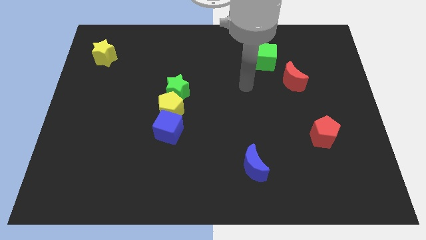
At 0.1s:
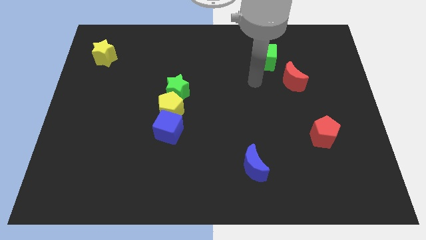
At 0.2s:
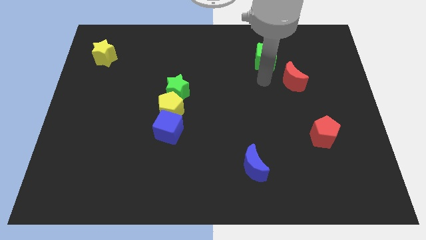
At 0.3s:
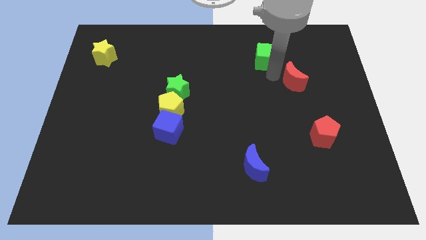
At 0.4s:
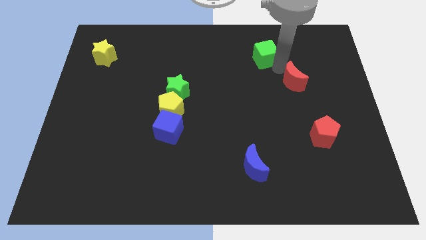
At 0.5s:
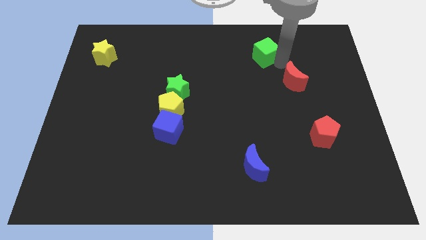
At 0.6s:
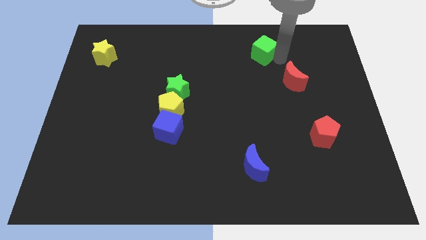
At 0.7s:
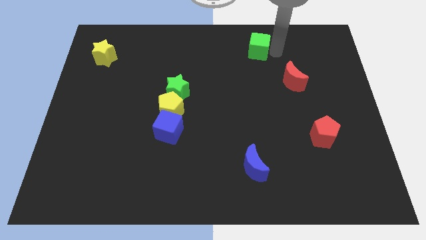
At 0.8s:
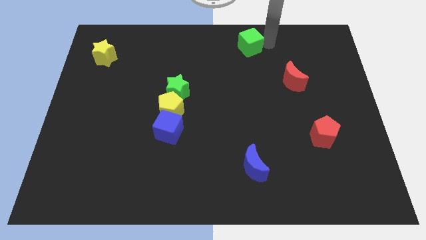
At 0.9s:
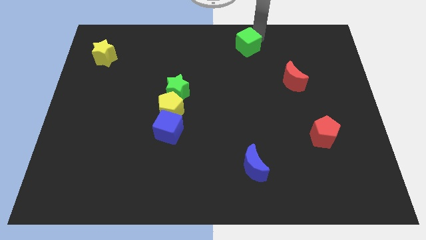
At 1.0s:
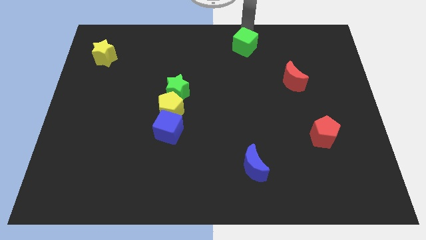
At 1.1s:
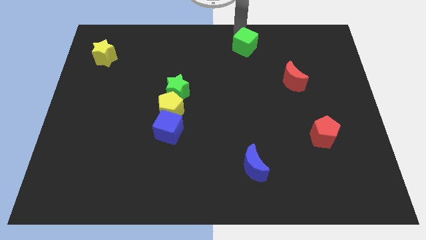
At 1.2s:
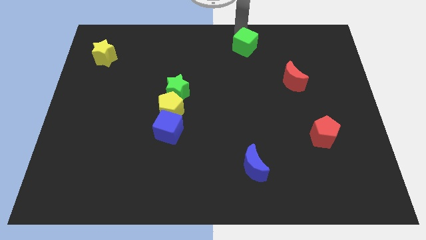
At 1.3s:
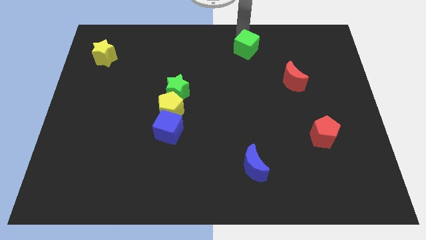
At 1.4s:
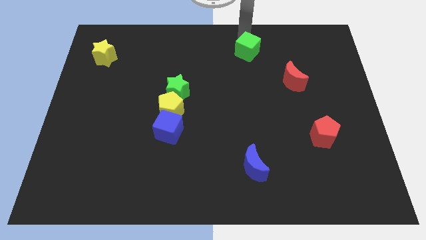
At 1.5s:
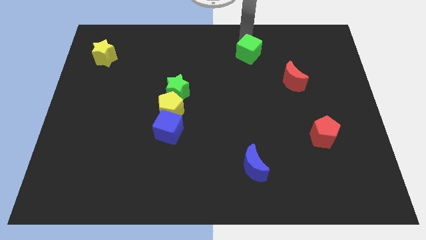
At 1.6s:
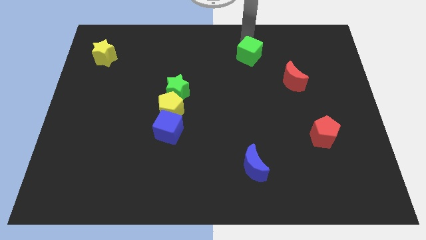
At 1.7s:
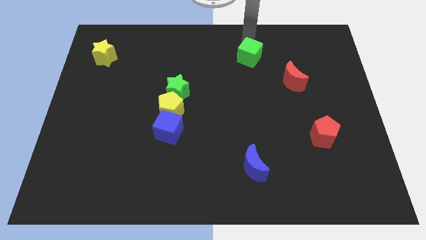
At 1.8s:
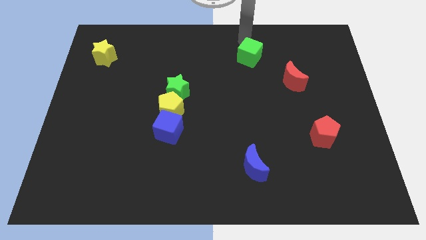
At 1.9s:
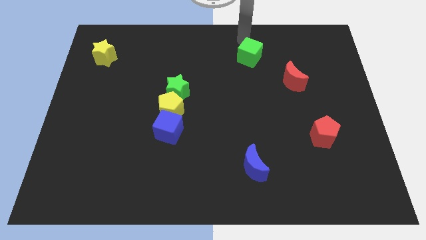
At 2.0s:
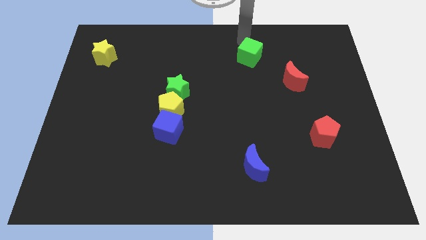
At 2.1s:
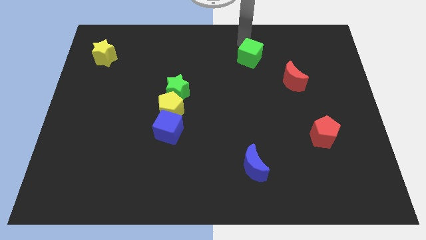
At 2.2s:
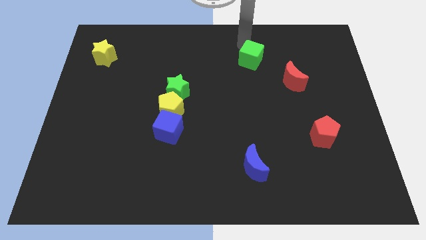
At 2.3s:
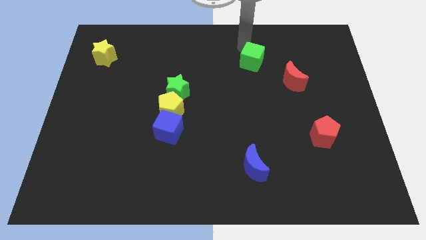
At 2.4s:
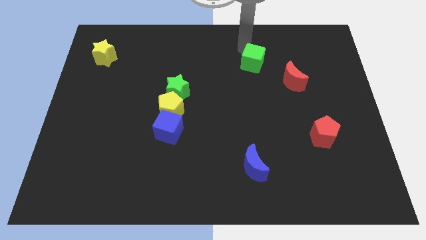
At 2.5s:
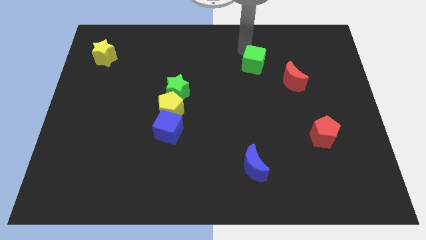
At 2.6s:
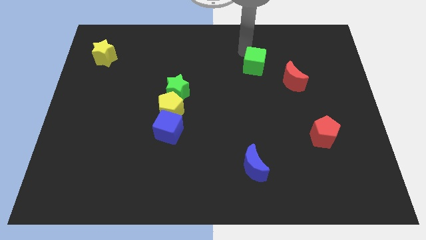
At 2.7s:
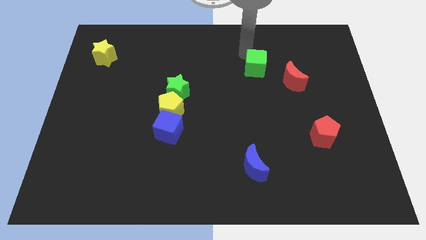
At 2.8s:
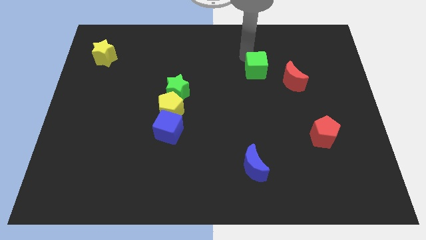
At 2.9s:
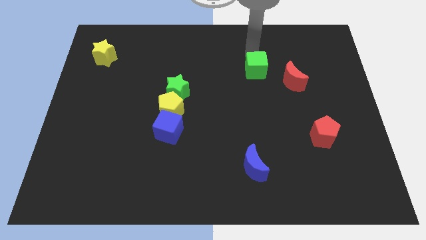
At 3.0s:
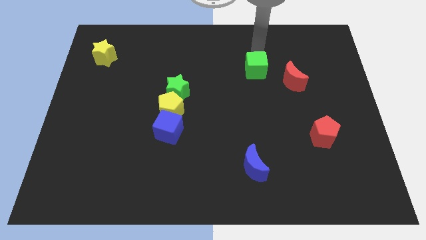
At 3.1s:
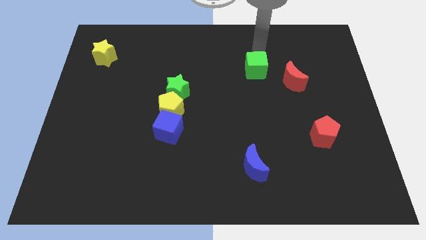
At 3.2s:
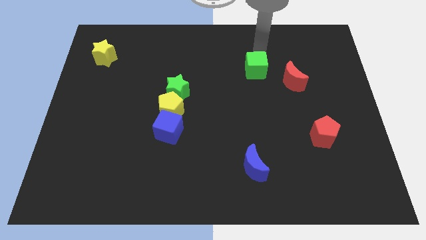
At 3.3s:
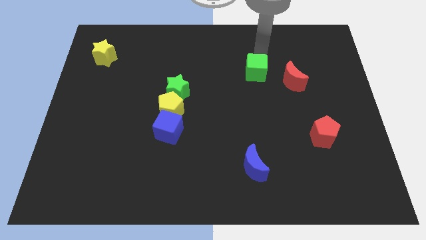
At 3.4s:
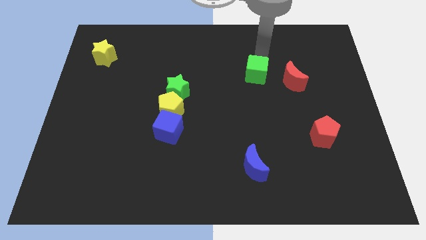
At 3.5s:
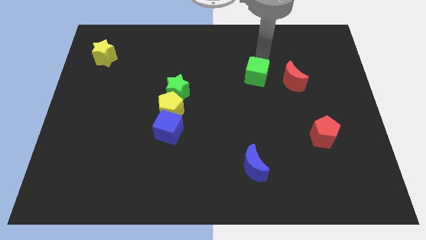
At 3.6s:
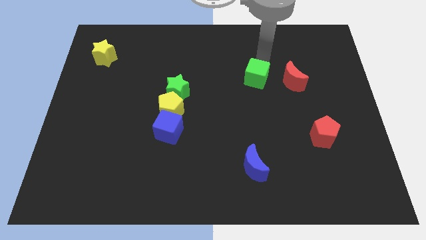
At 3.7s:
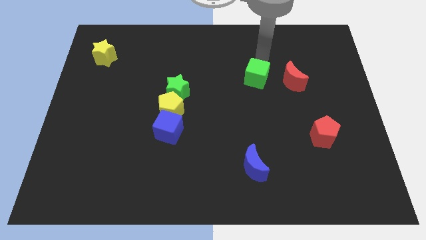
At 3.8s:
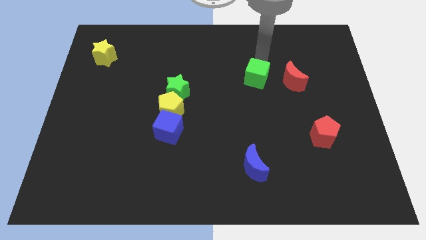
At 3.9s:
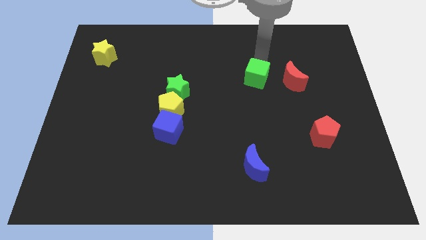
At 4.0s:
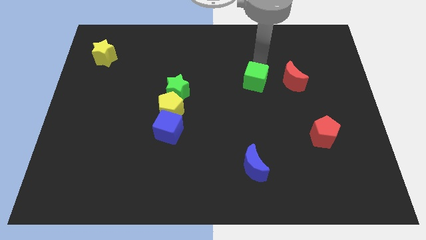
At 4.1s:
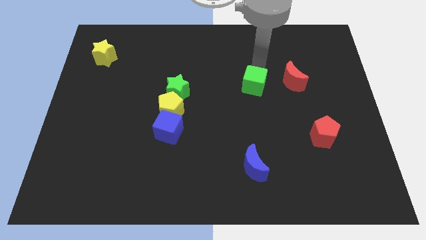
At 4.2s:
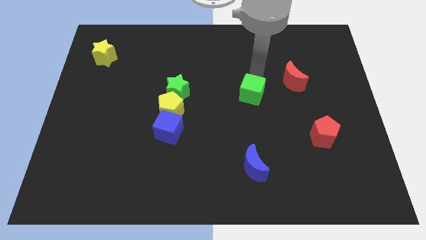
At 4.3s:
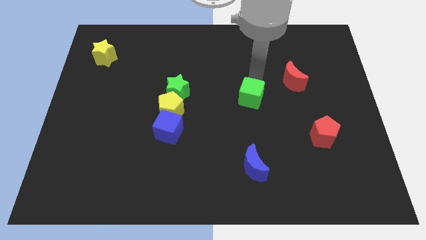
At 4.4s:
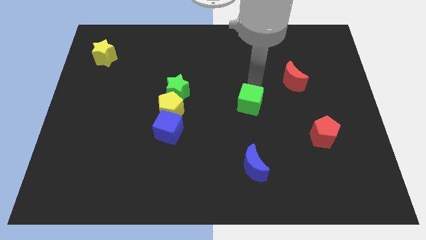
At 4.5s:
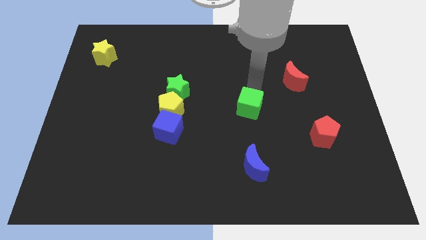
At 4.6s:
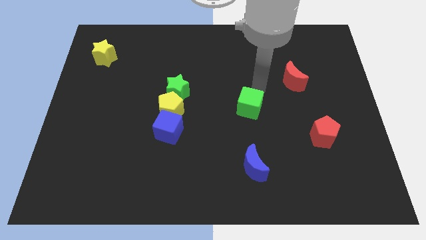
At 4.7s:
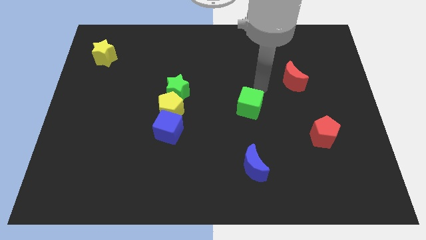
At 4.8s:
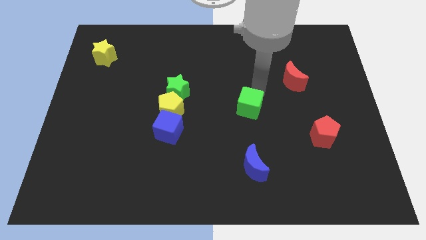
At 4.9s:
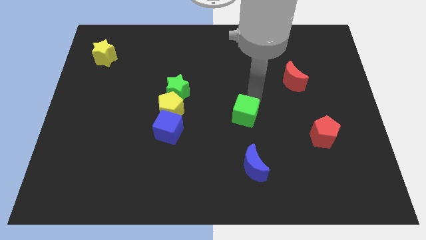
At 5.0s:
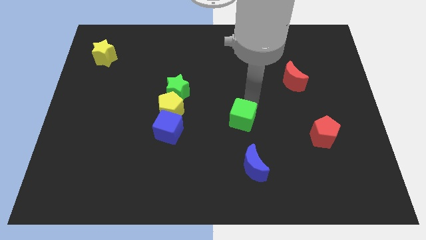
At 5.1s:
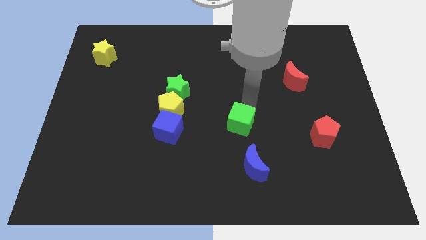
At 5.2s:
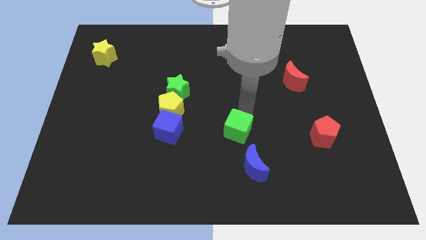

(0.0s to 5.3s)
move the green cube to the top left of the blue moon

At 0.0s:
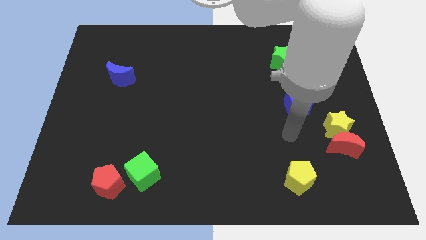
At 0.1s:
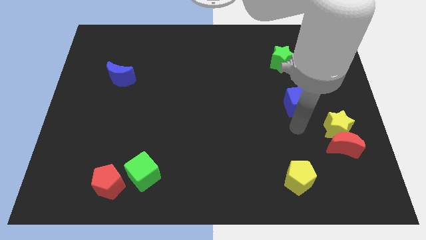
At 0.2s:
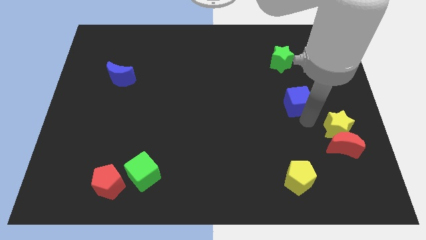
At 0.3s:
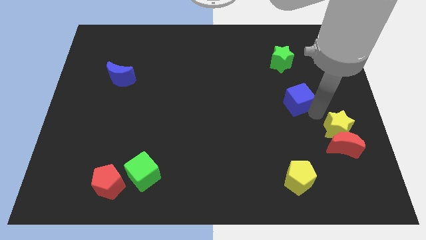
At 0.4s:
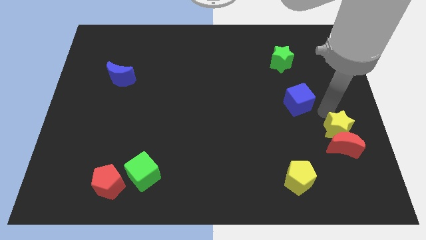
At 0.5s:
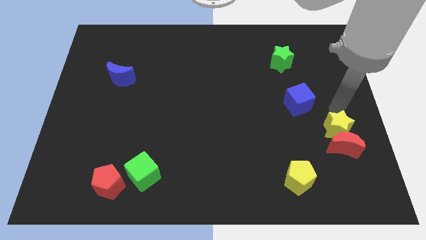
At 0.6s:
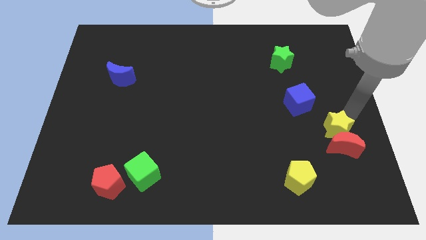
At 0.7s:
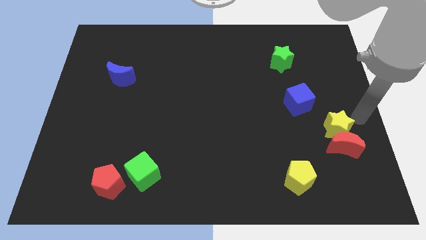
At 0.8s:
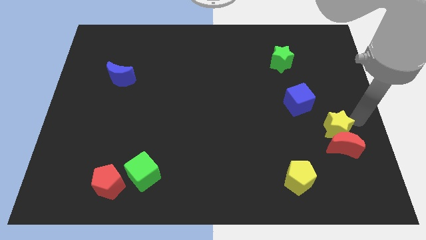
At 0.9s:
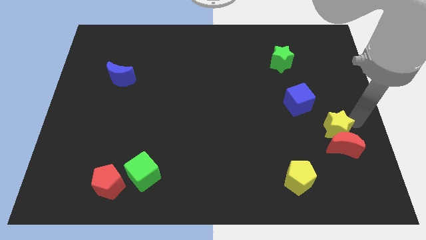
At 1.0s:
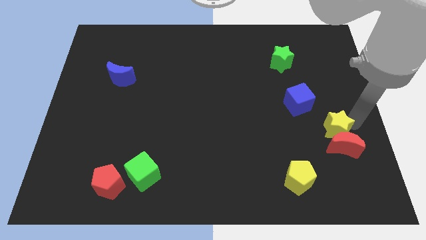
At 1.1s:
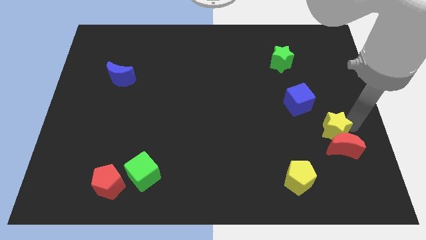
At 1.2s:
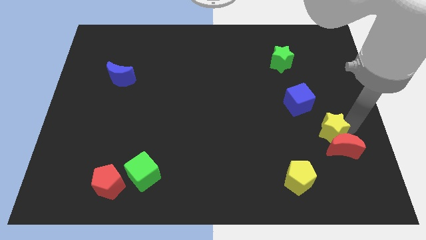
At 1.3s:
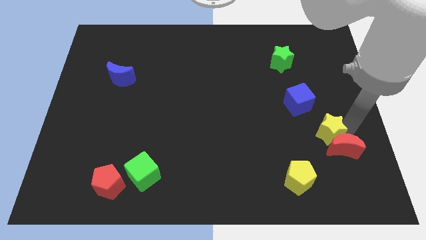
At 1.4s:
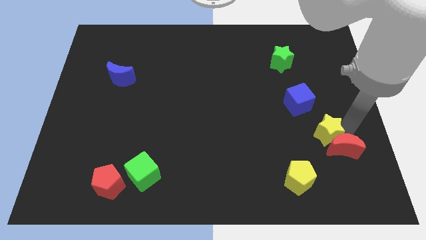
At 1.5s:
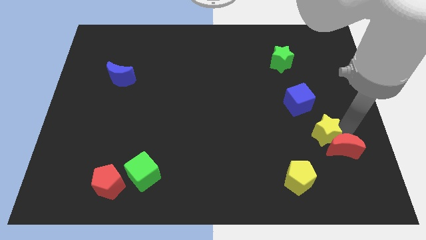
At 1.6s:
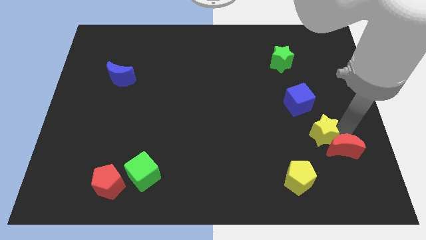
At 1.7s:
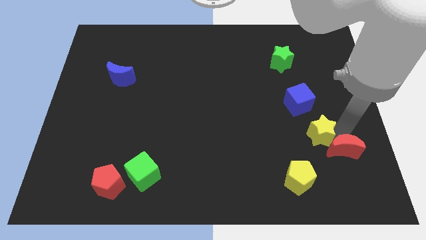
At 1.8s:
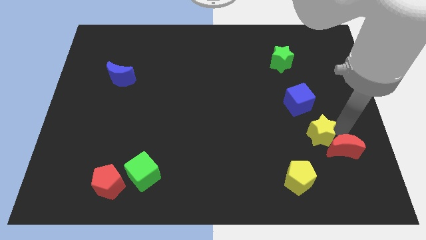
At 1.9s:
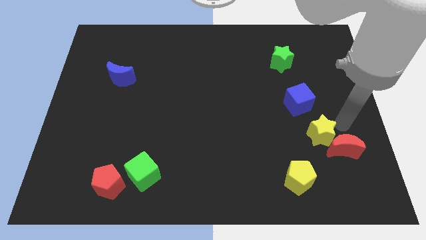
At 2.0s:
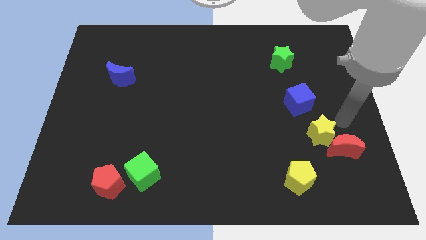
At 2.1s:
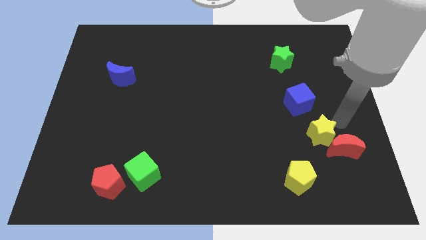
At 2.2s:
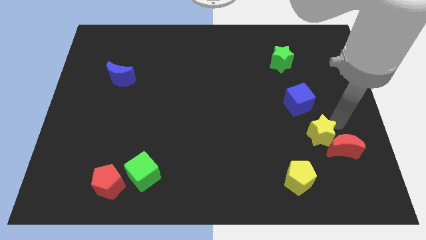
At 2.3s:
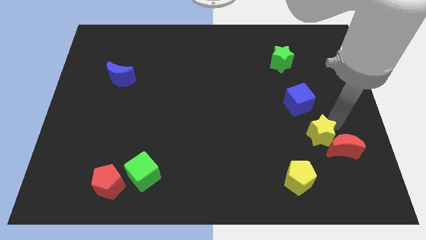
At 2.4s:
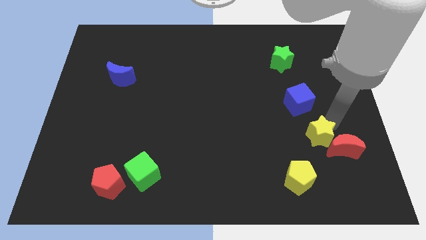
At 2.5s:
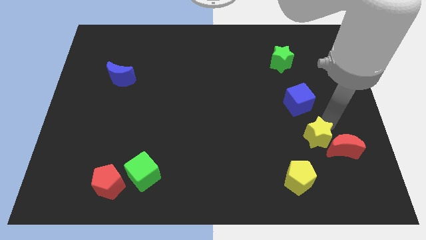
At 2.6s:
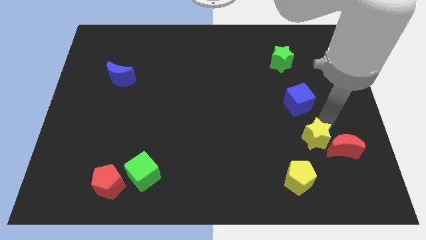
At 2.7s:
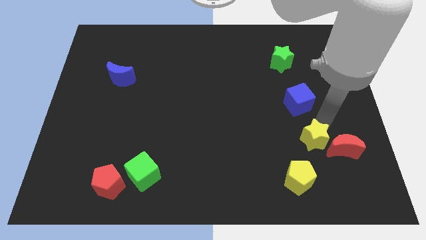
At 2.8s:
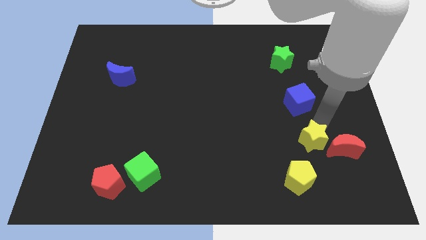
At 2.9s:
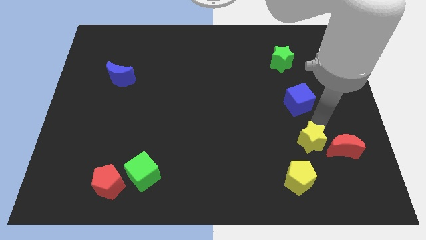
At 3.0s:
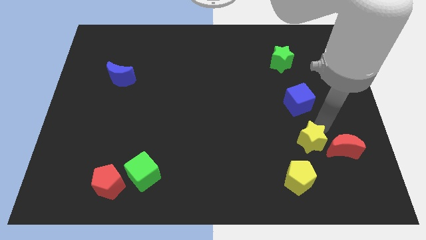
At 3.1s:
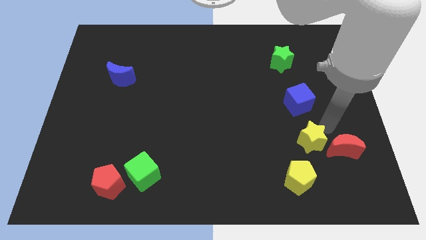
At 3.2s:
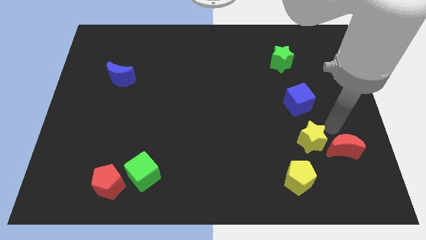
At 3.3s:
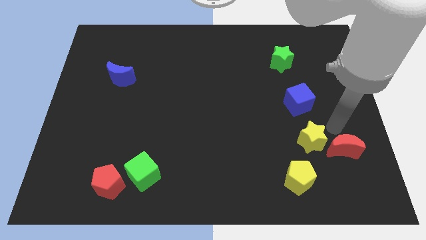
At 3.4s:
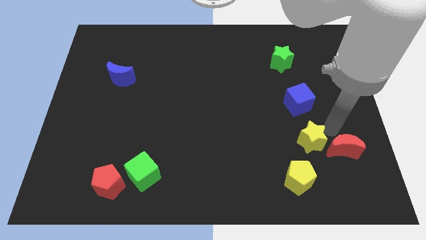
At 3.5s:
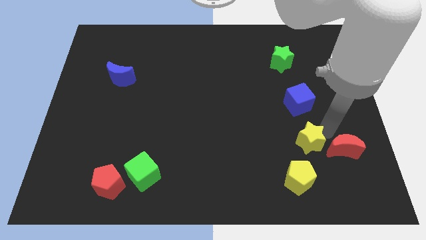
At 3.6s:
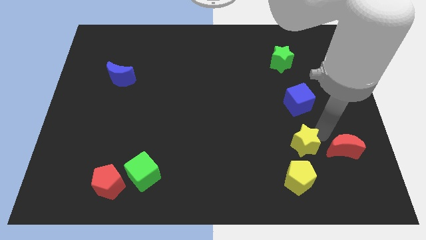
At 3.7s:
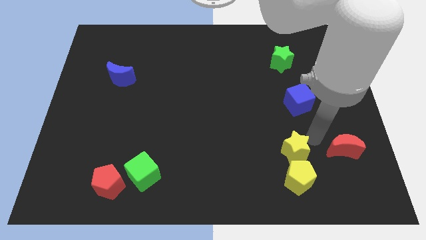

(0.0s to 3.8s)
put the yellow star to the top left of the yellow pentagon
